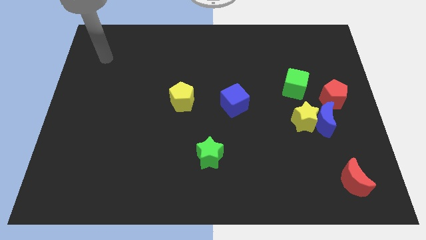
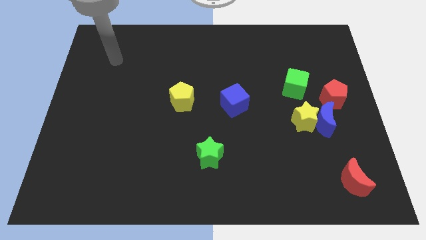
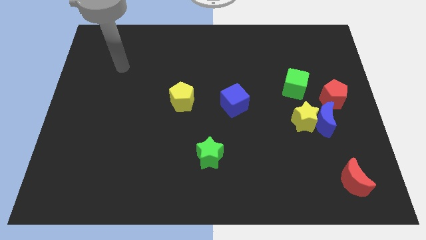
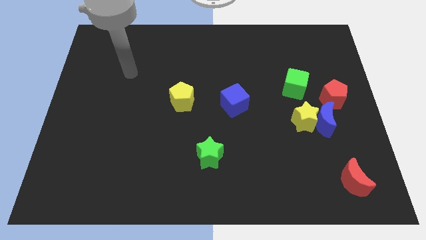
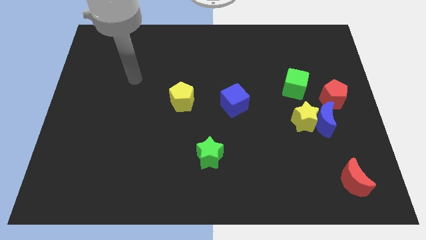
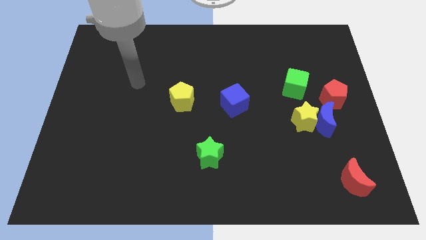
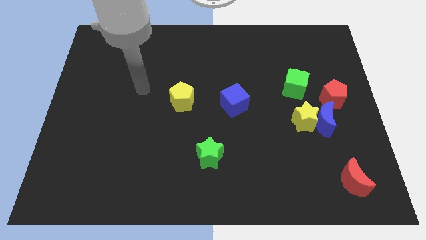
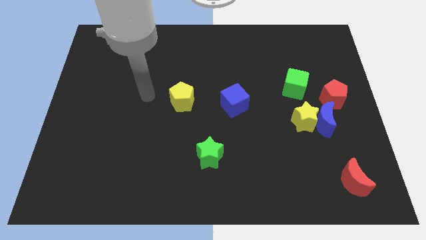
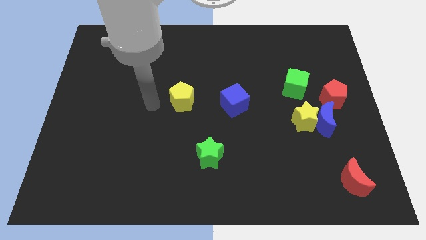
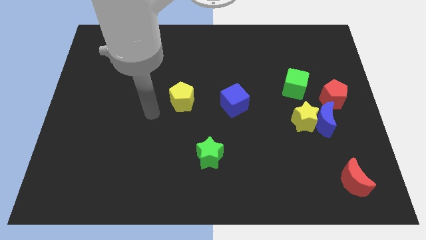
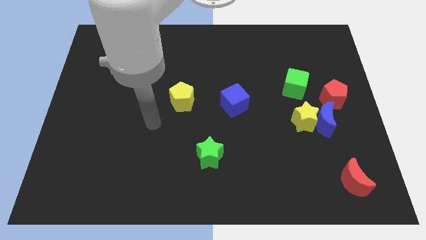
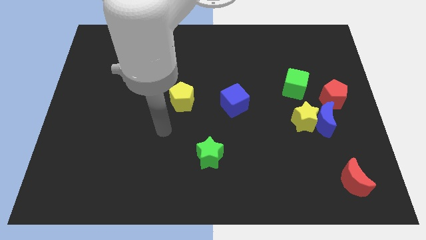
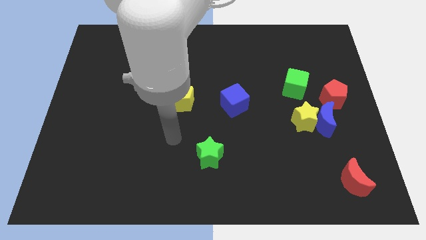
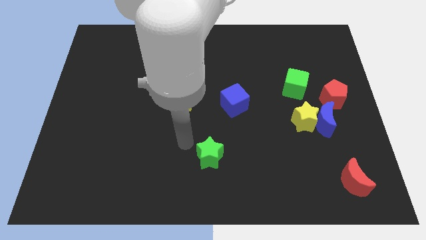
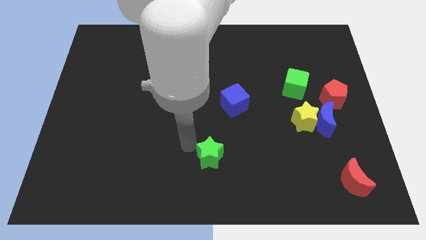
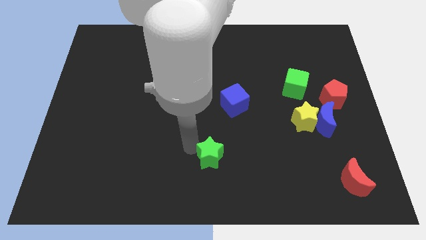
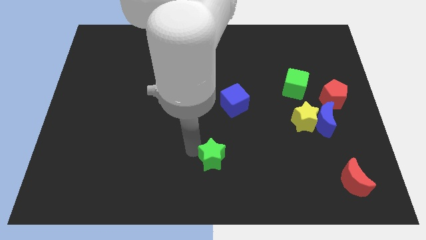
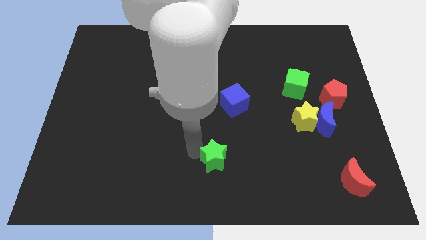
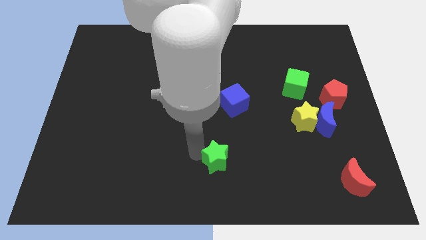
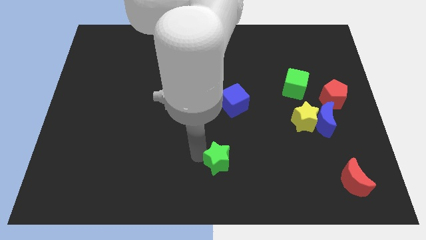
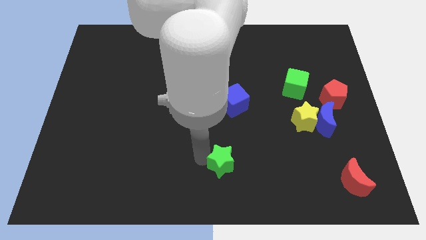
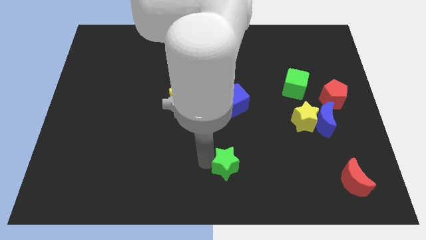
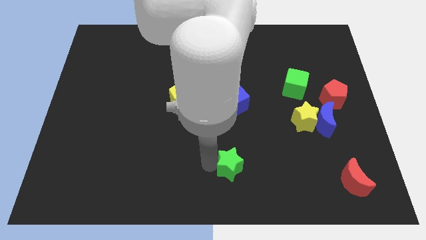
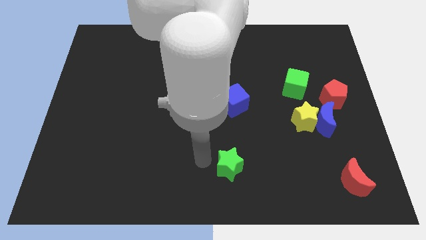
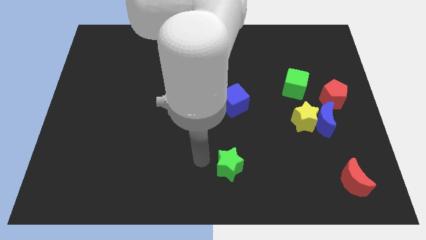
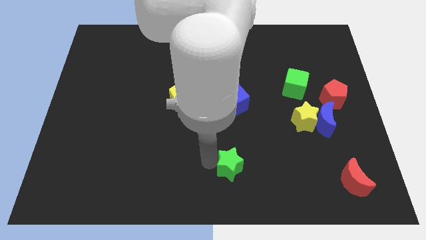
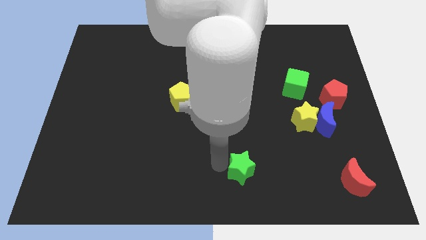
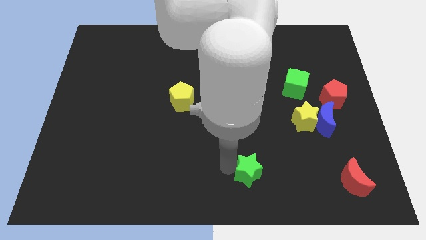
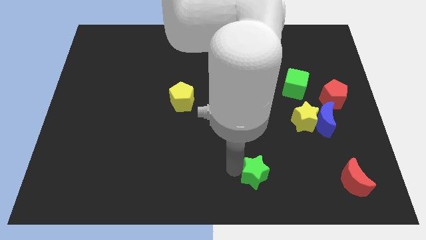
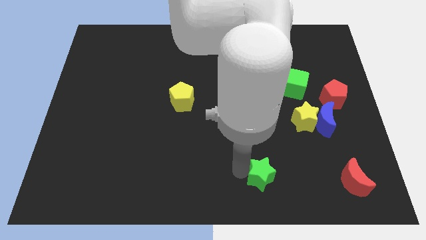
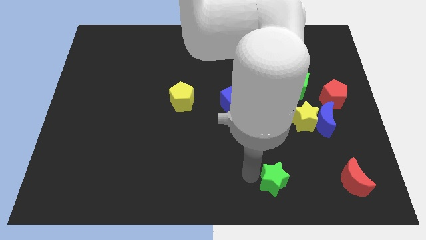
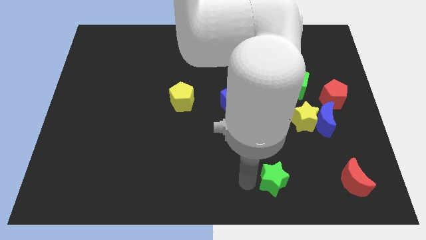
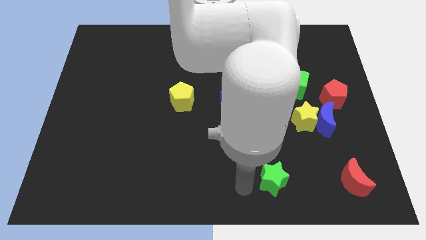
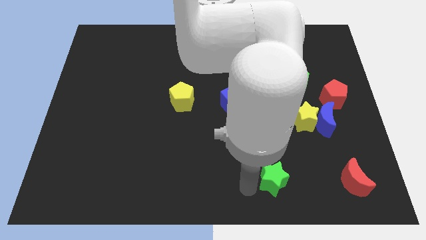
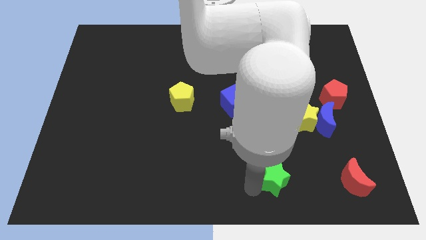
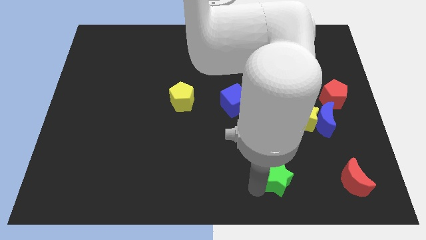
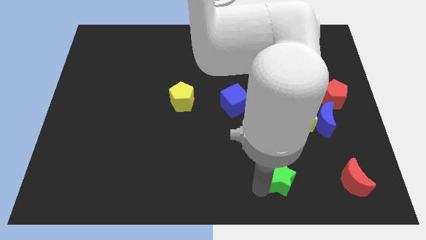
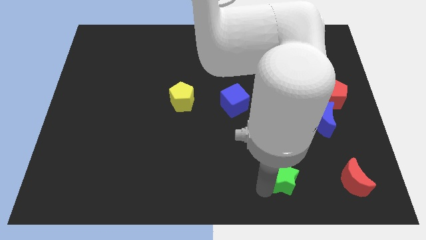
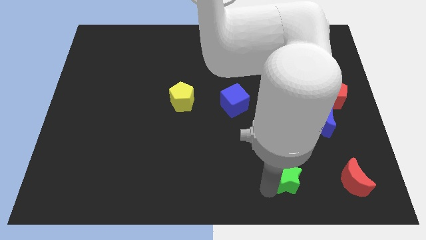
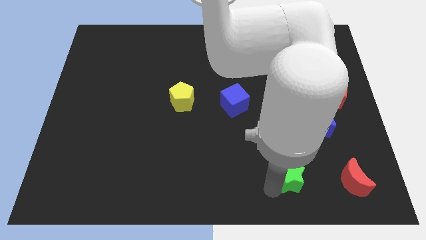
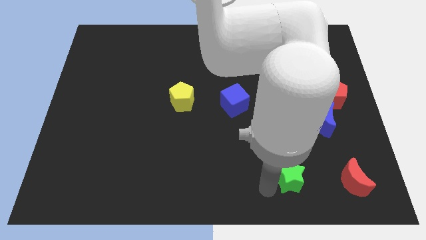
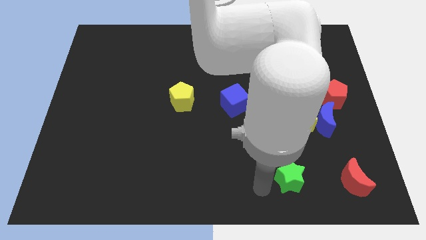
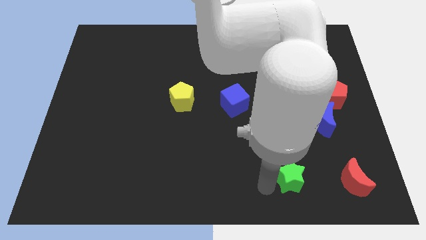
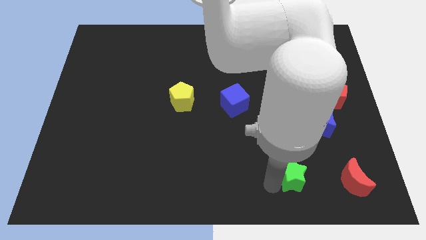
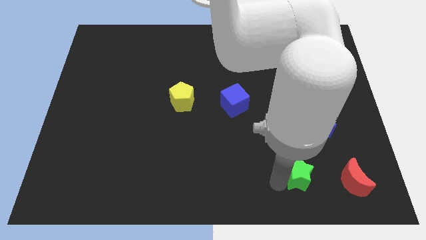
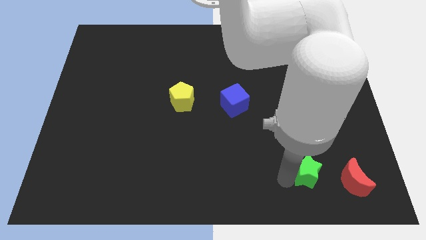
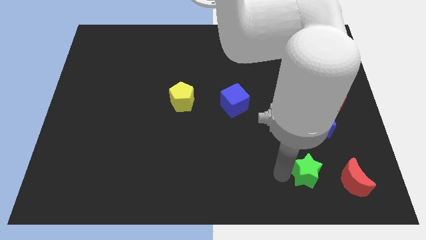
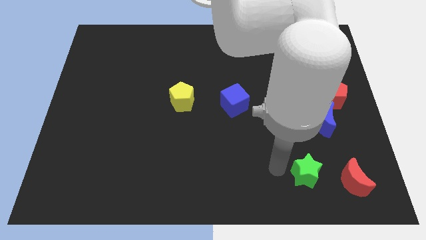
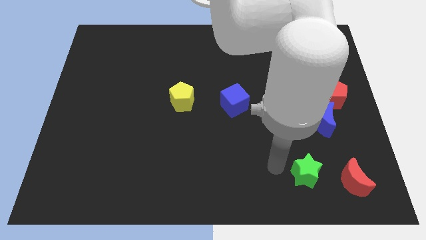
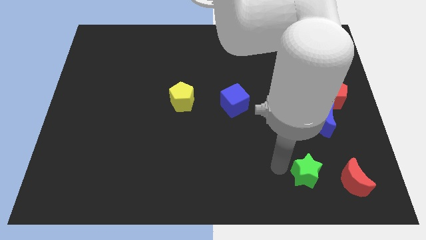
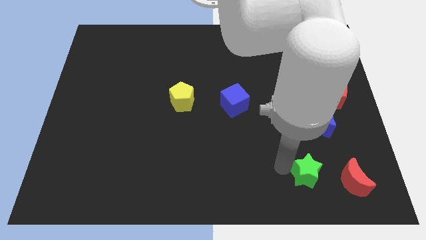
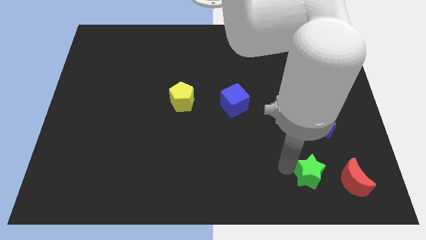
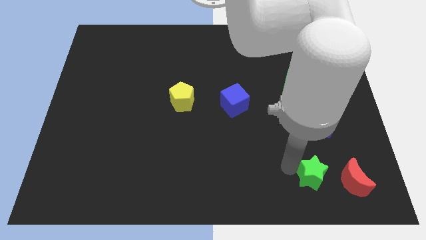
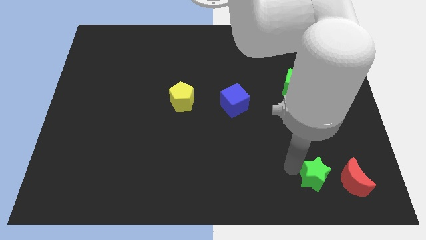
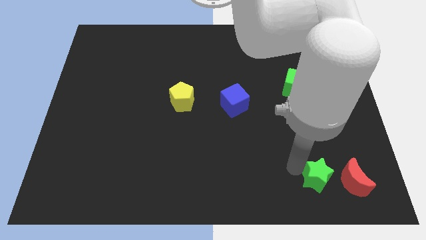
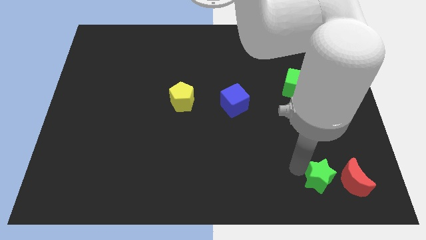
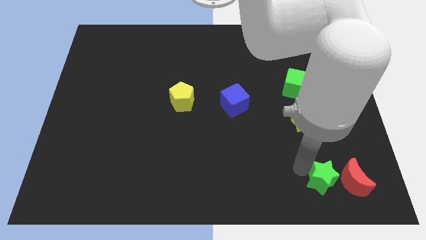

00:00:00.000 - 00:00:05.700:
slide the green star to the red moon
